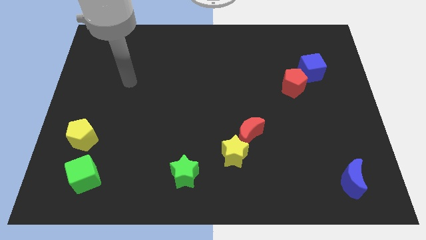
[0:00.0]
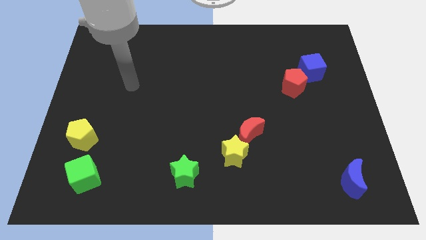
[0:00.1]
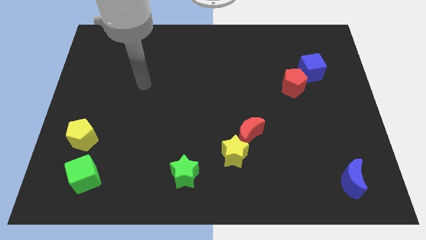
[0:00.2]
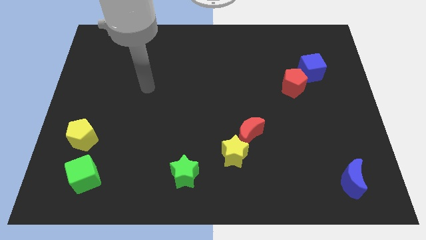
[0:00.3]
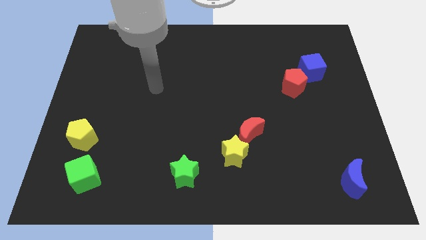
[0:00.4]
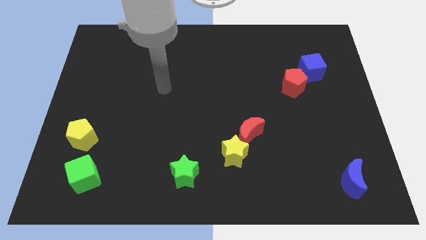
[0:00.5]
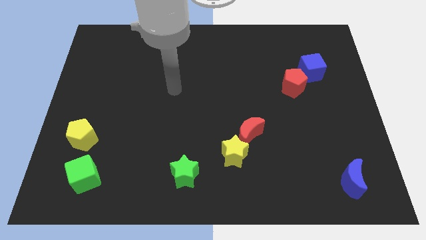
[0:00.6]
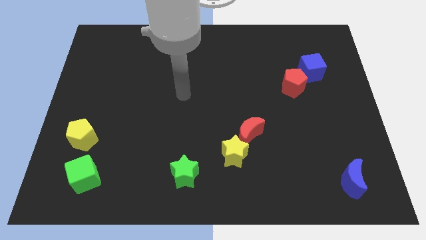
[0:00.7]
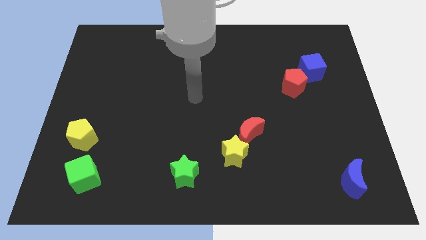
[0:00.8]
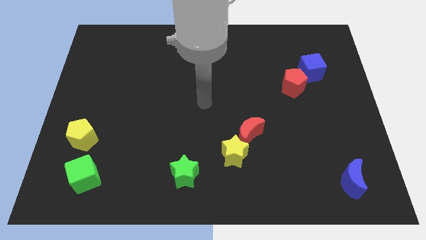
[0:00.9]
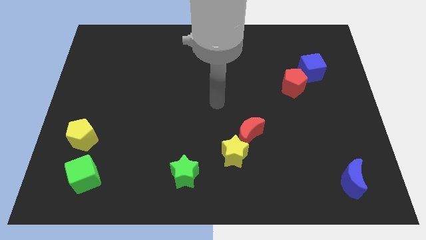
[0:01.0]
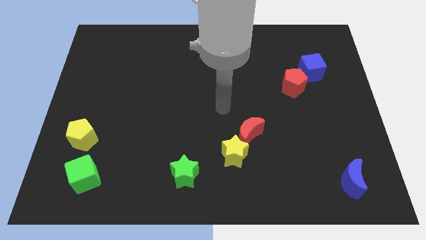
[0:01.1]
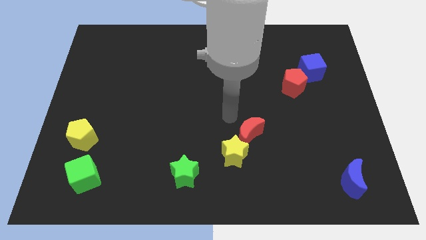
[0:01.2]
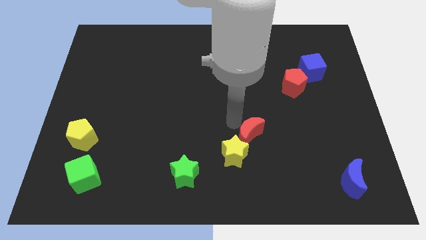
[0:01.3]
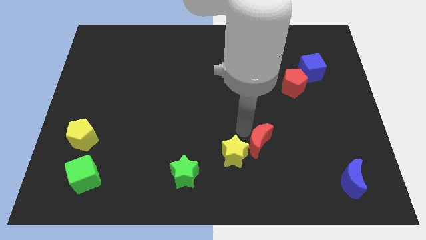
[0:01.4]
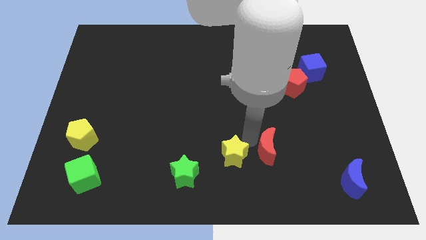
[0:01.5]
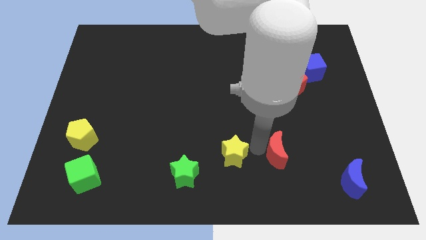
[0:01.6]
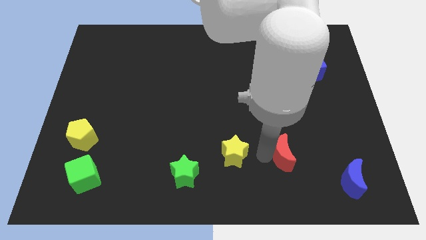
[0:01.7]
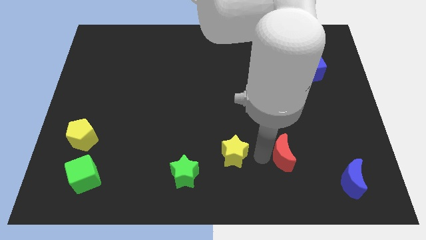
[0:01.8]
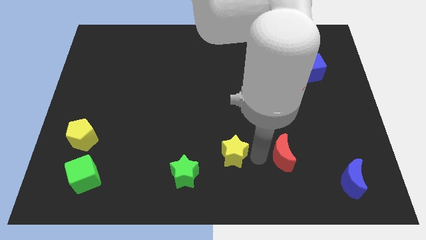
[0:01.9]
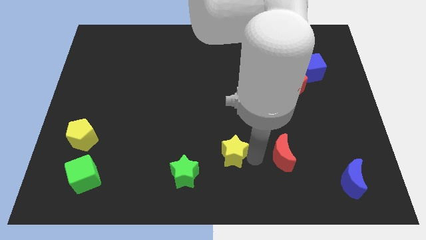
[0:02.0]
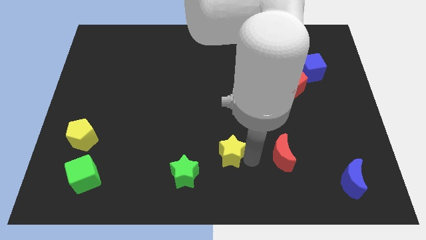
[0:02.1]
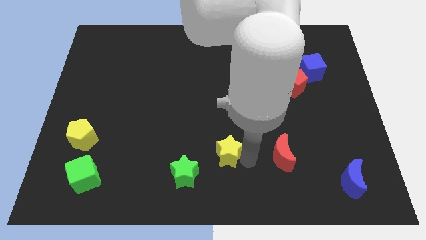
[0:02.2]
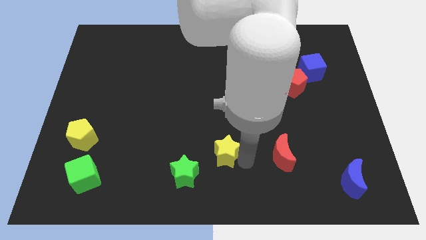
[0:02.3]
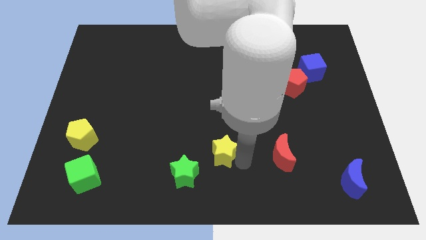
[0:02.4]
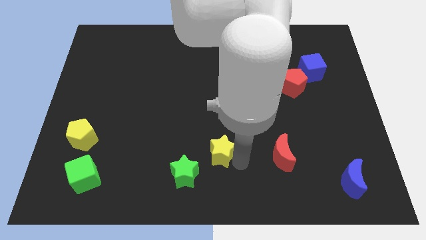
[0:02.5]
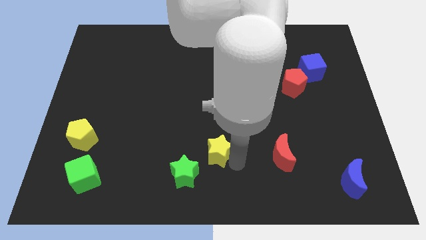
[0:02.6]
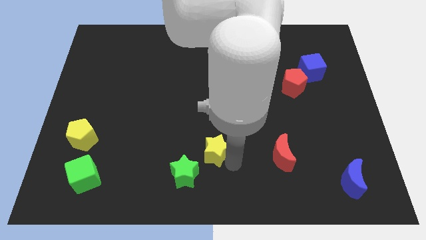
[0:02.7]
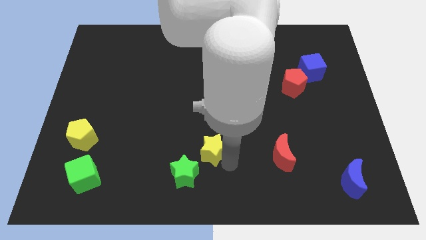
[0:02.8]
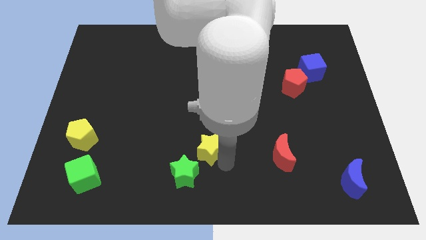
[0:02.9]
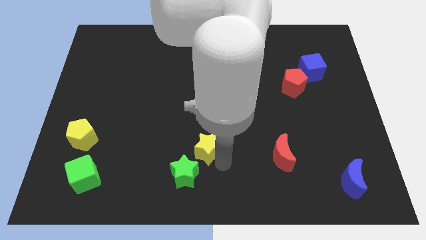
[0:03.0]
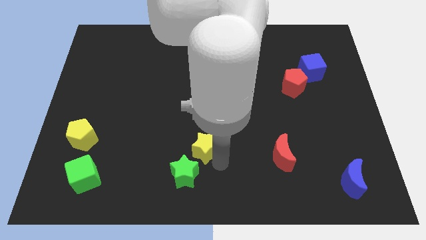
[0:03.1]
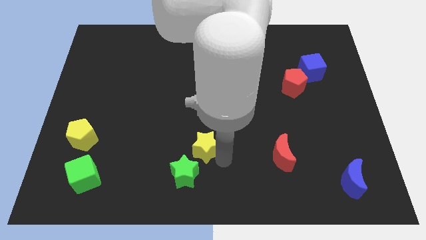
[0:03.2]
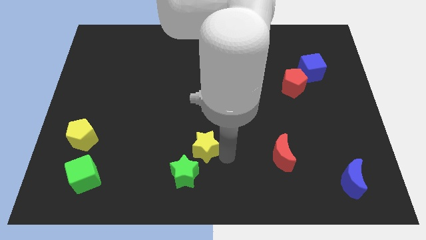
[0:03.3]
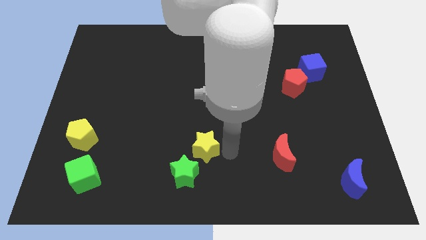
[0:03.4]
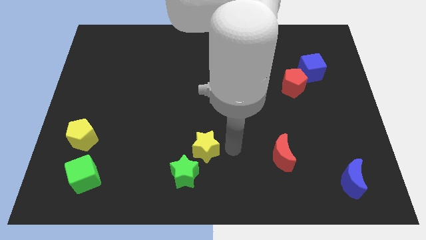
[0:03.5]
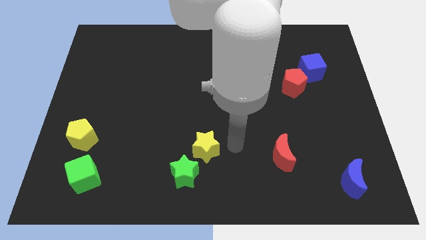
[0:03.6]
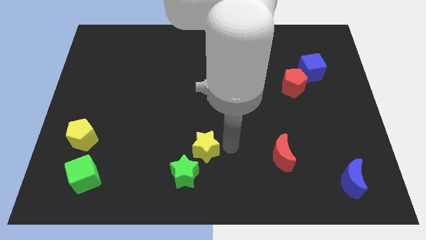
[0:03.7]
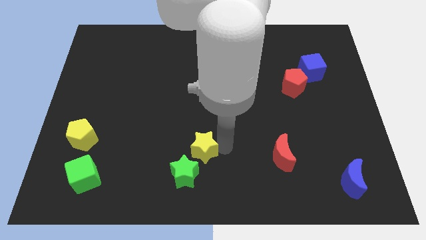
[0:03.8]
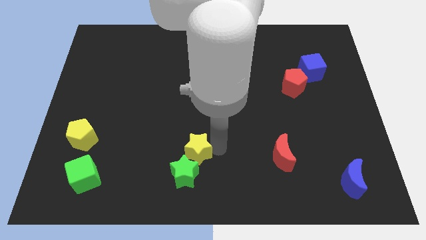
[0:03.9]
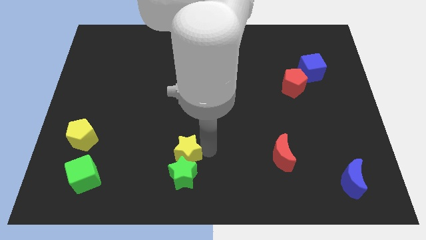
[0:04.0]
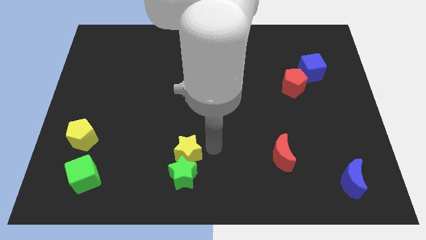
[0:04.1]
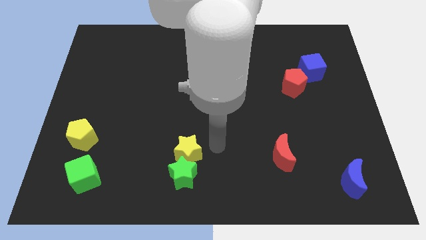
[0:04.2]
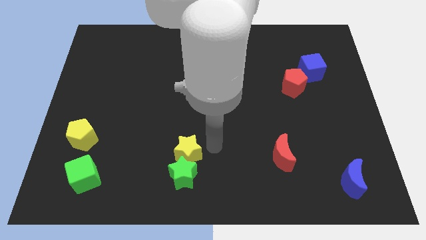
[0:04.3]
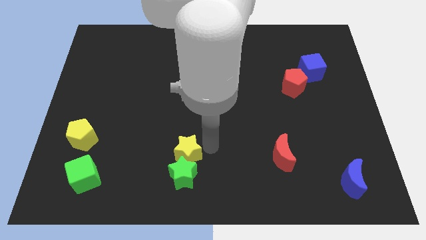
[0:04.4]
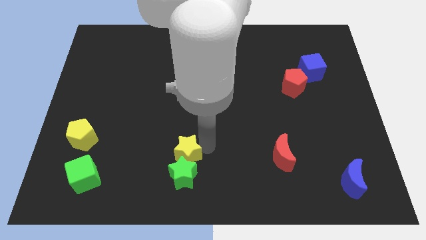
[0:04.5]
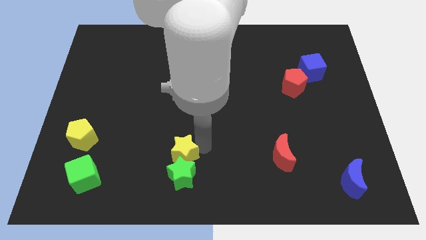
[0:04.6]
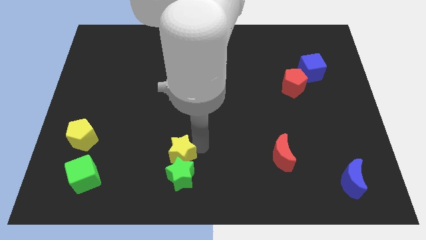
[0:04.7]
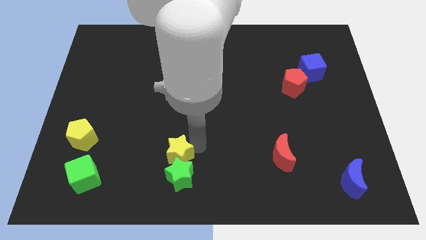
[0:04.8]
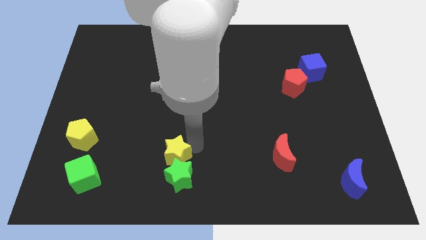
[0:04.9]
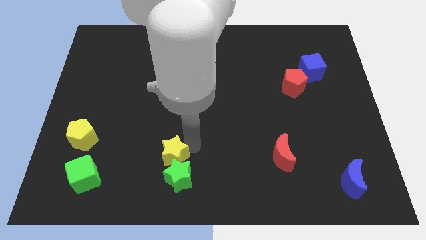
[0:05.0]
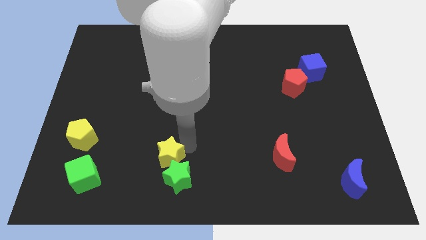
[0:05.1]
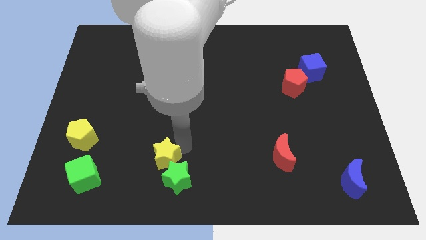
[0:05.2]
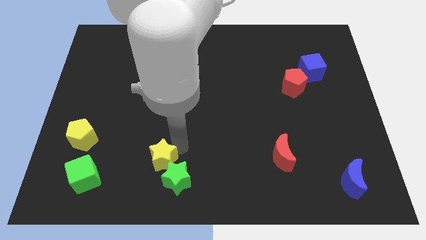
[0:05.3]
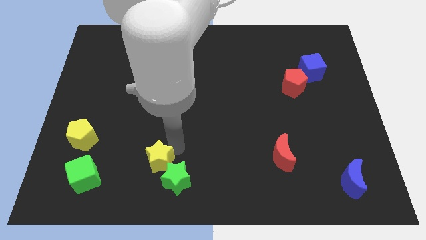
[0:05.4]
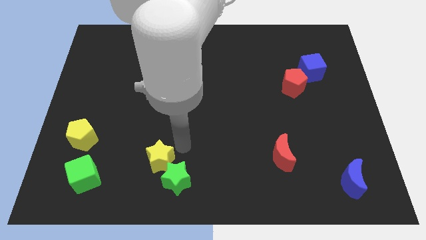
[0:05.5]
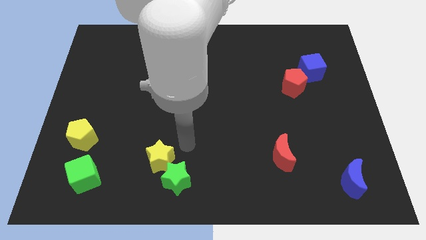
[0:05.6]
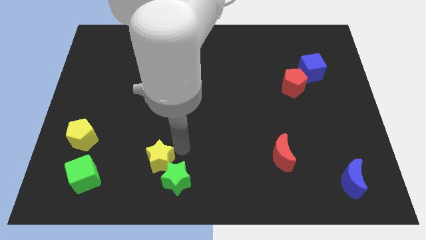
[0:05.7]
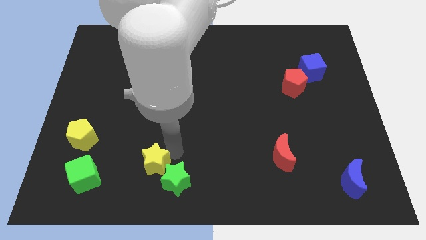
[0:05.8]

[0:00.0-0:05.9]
put the yellow star right of the green cube

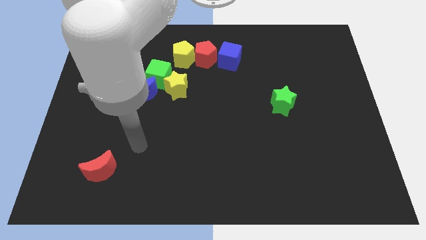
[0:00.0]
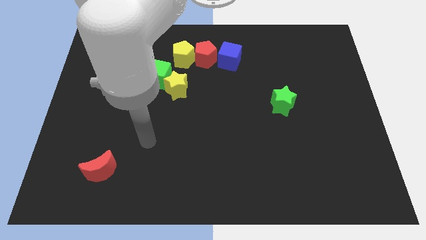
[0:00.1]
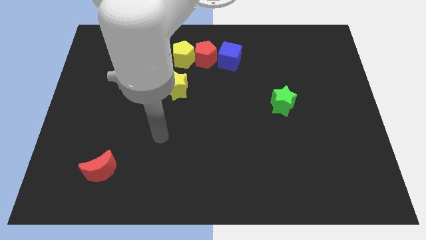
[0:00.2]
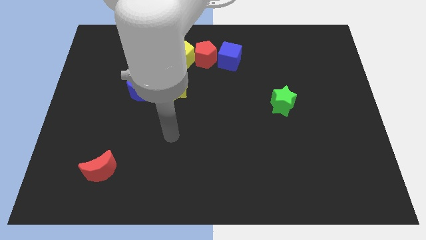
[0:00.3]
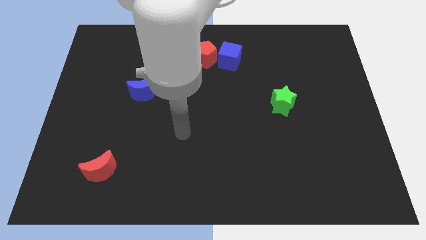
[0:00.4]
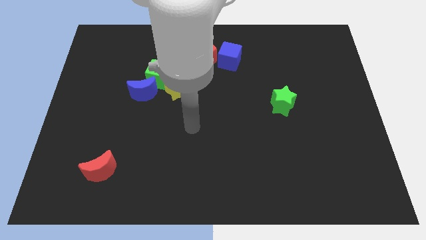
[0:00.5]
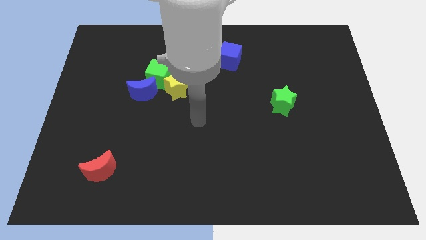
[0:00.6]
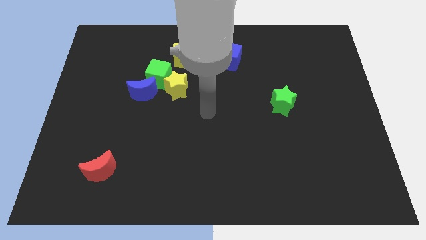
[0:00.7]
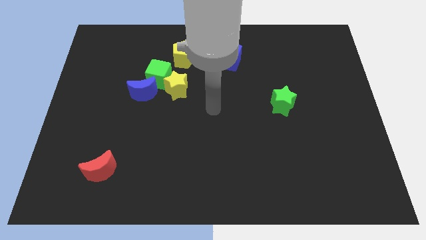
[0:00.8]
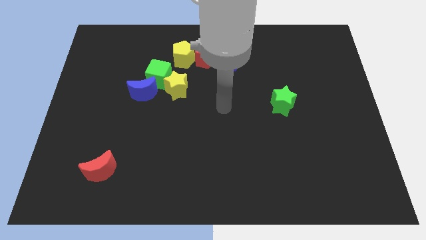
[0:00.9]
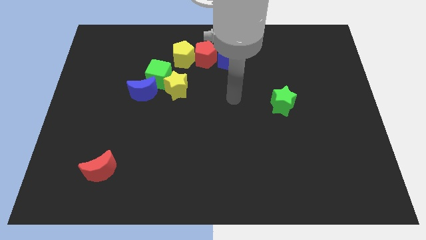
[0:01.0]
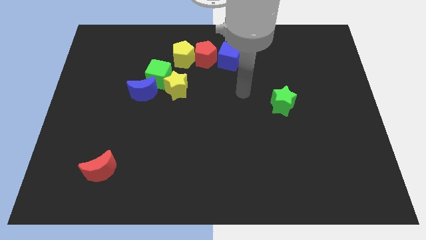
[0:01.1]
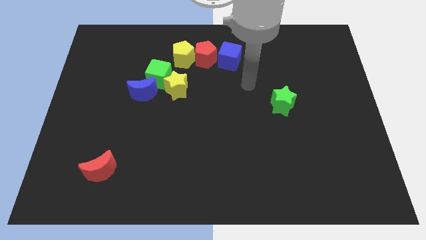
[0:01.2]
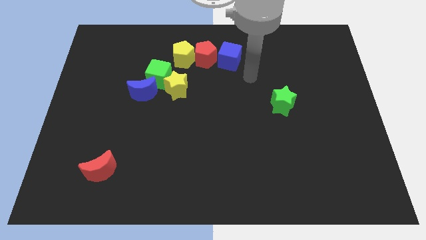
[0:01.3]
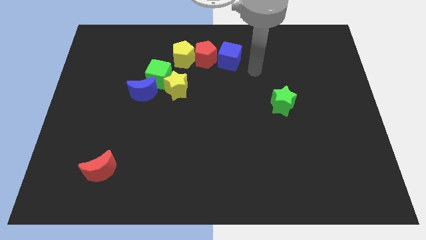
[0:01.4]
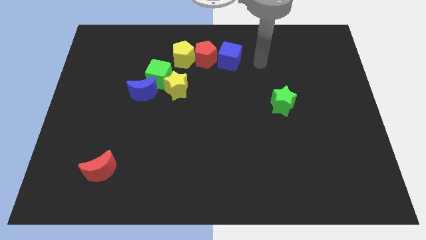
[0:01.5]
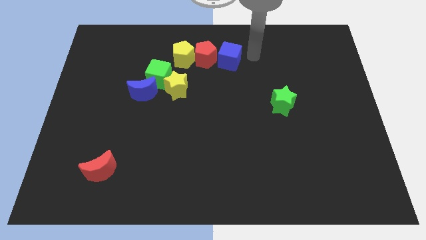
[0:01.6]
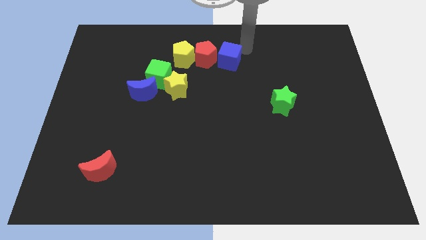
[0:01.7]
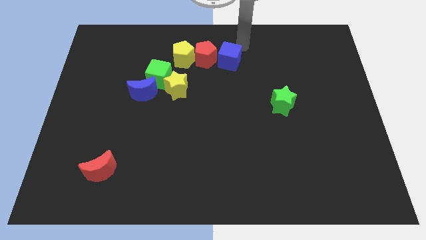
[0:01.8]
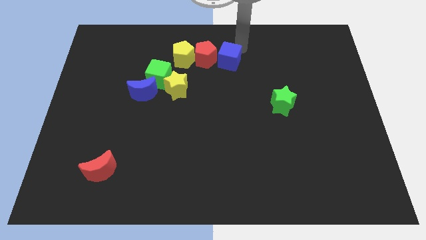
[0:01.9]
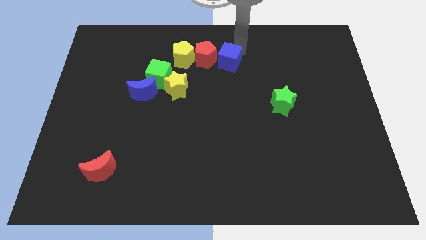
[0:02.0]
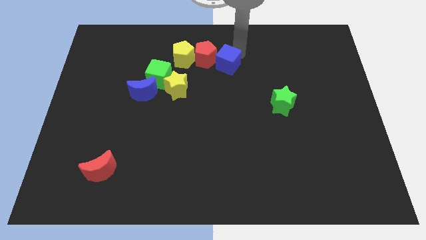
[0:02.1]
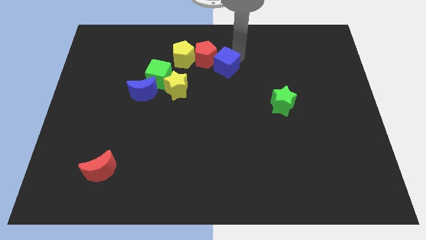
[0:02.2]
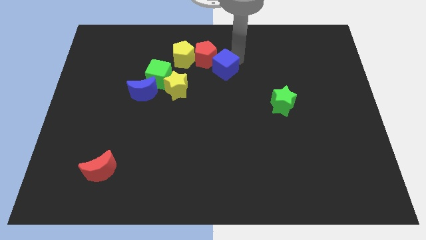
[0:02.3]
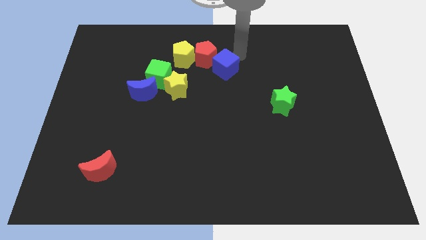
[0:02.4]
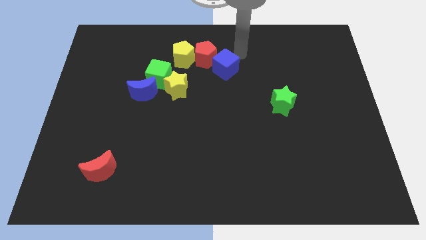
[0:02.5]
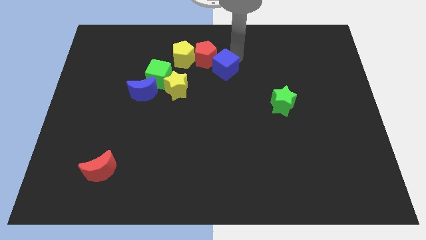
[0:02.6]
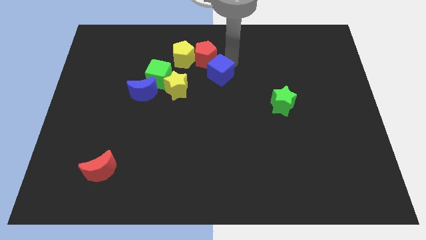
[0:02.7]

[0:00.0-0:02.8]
move the blue cube to the bottom side of the red pentagon
